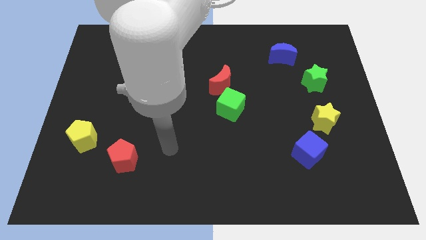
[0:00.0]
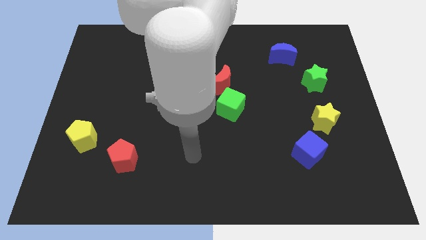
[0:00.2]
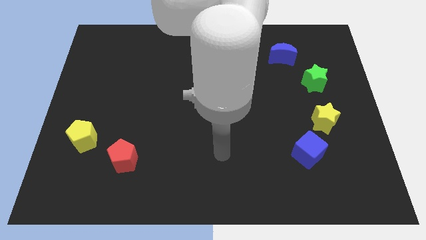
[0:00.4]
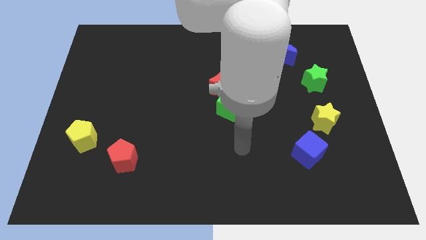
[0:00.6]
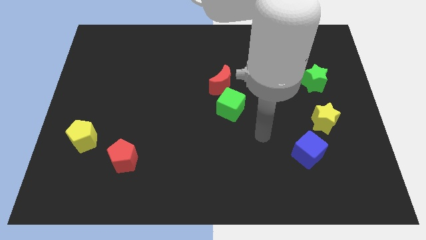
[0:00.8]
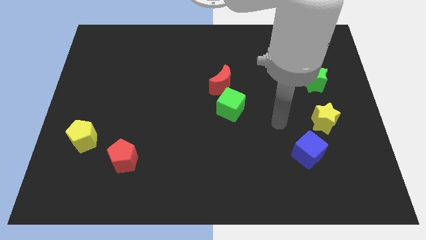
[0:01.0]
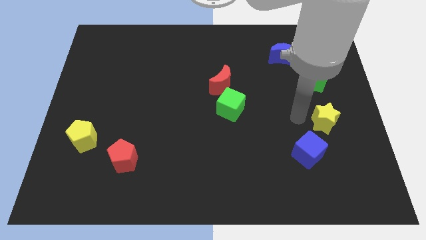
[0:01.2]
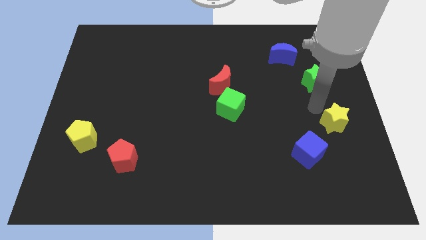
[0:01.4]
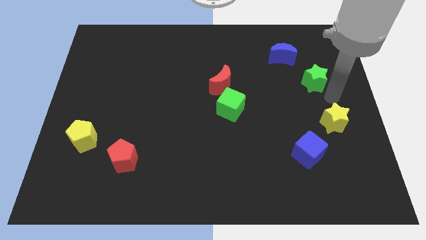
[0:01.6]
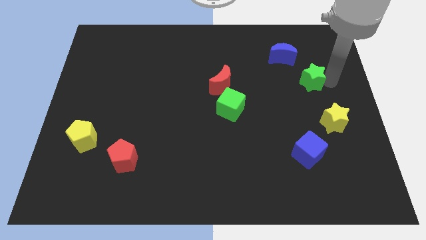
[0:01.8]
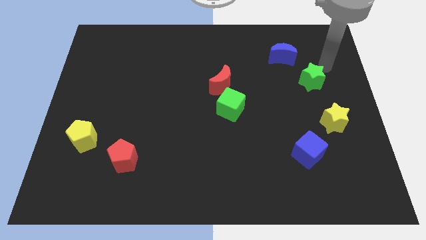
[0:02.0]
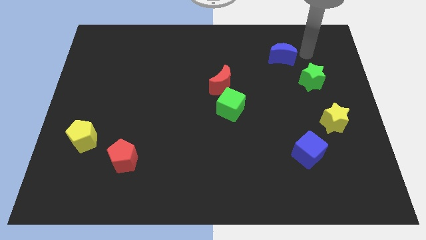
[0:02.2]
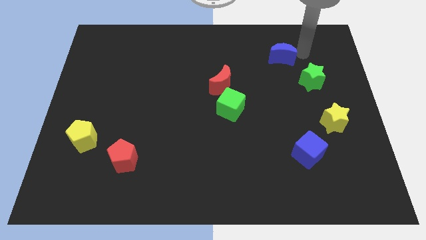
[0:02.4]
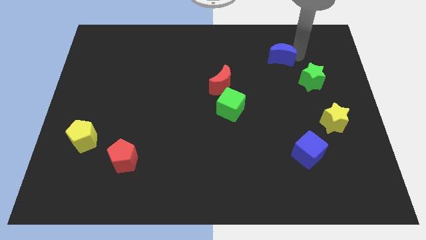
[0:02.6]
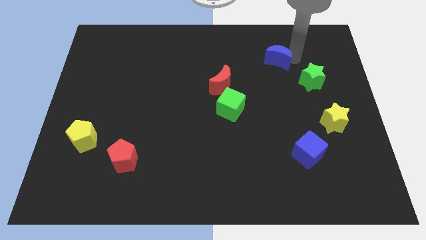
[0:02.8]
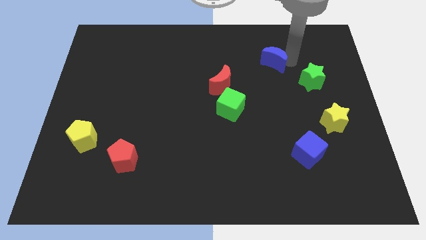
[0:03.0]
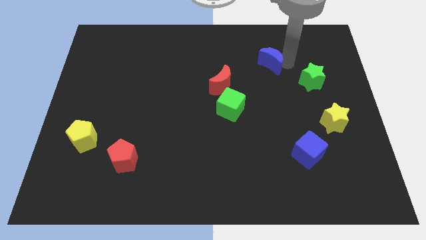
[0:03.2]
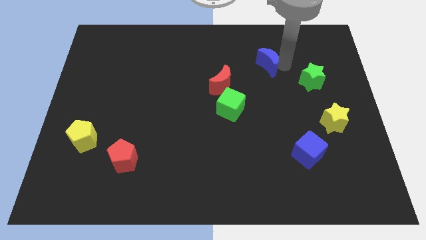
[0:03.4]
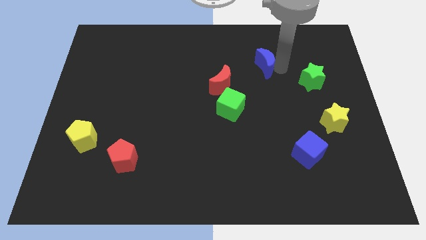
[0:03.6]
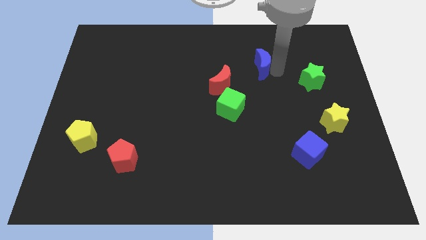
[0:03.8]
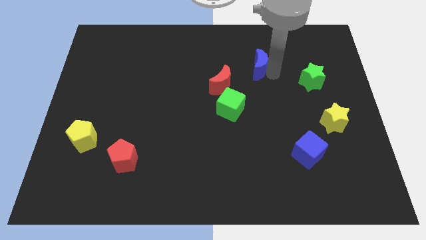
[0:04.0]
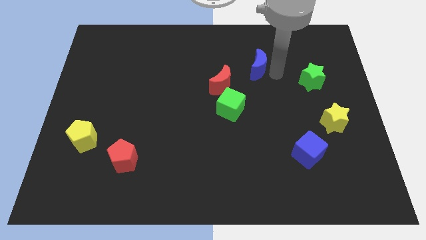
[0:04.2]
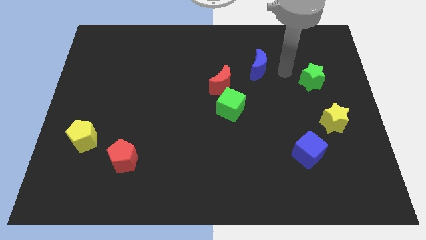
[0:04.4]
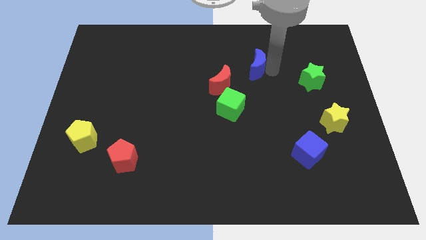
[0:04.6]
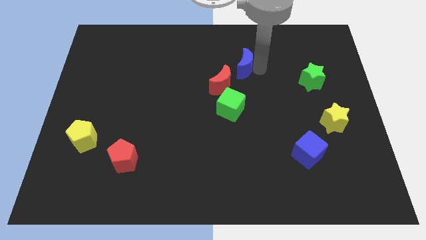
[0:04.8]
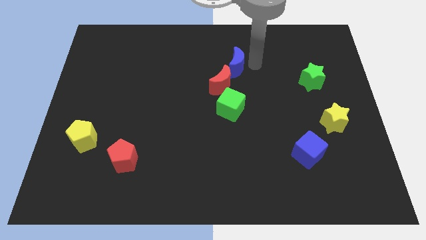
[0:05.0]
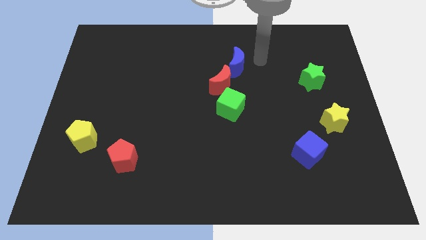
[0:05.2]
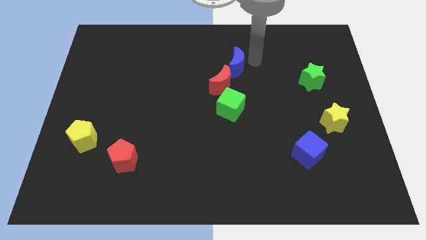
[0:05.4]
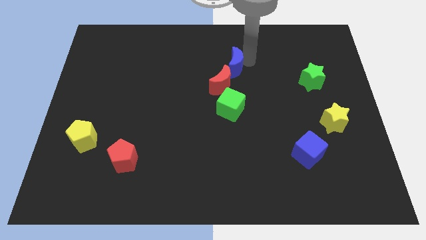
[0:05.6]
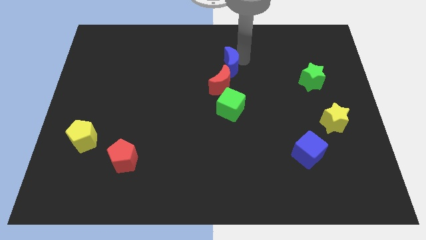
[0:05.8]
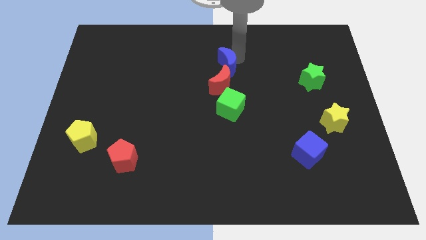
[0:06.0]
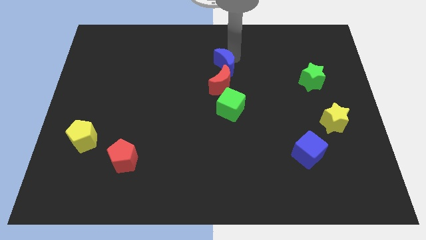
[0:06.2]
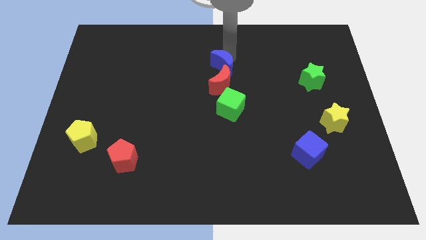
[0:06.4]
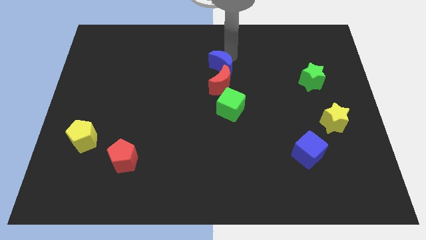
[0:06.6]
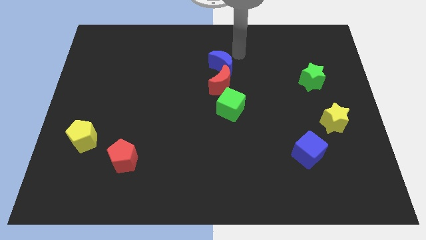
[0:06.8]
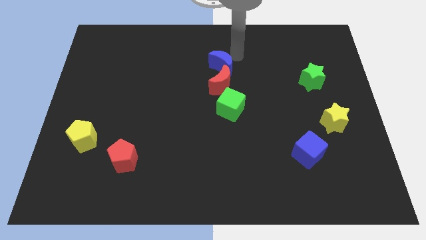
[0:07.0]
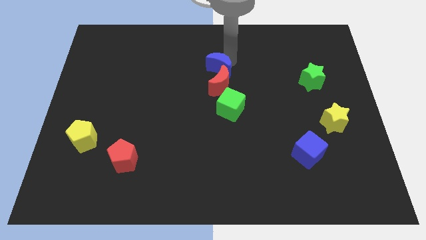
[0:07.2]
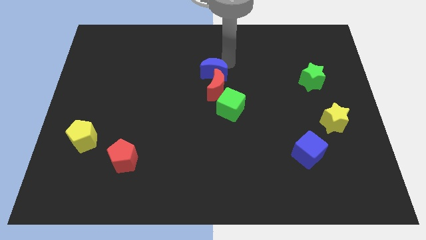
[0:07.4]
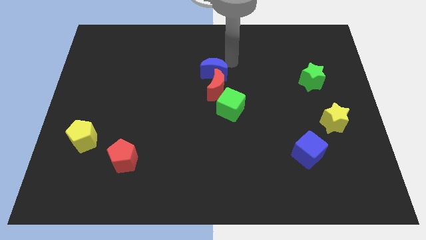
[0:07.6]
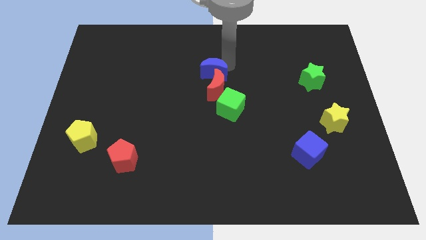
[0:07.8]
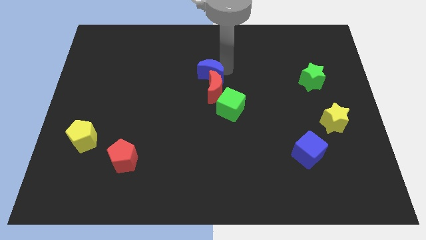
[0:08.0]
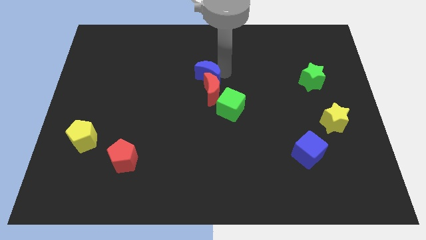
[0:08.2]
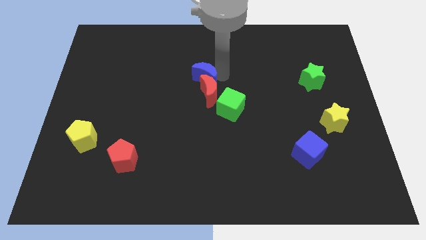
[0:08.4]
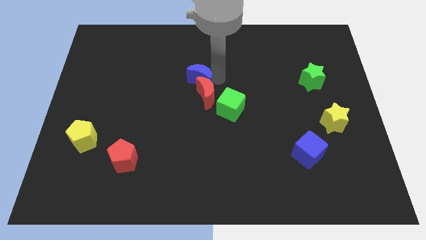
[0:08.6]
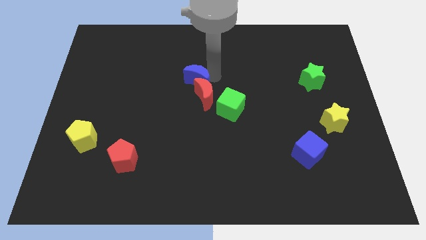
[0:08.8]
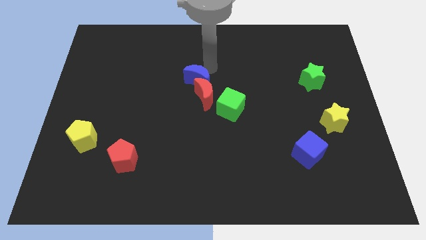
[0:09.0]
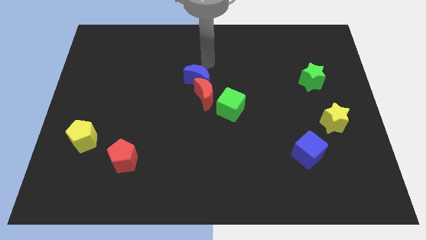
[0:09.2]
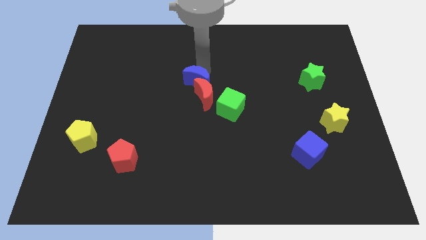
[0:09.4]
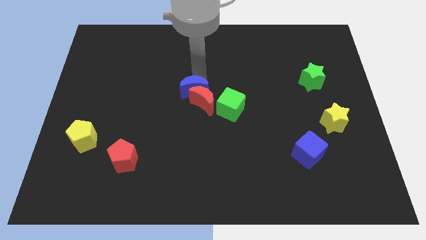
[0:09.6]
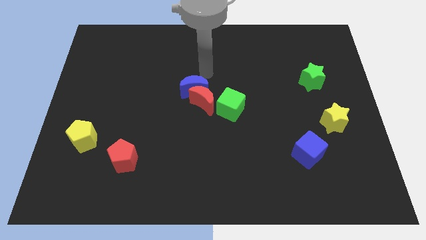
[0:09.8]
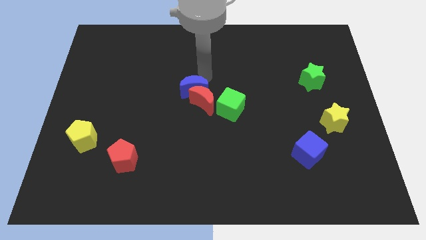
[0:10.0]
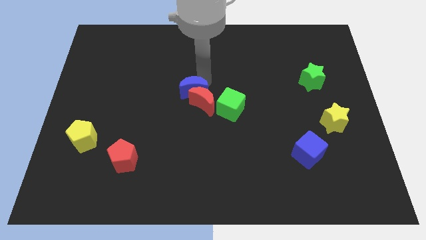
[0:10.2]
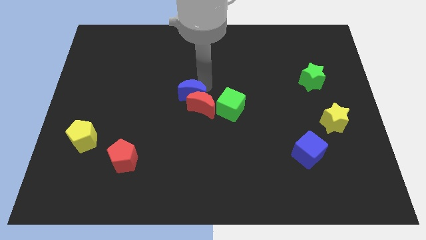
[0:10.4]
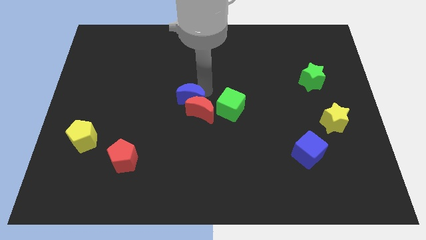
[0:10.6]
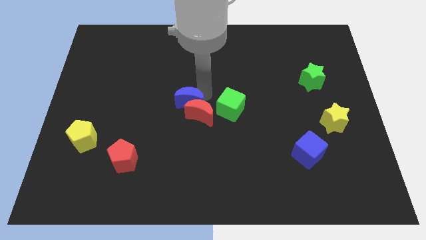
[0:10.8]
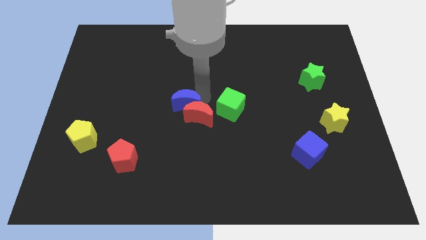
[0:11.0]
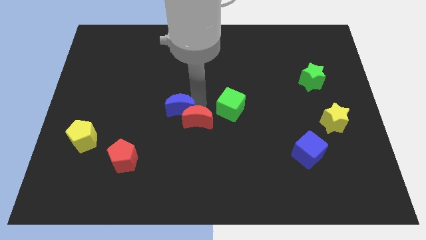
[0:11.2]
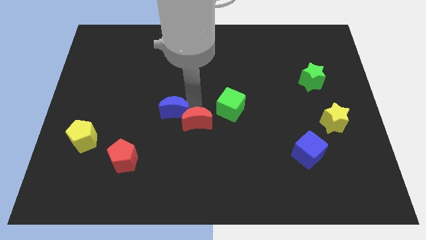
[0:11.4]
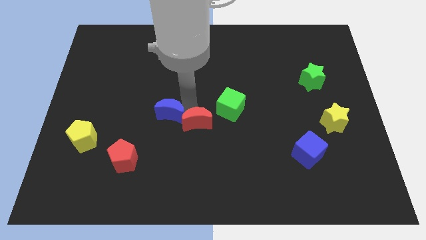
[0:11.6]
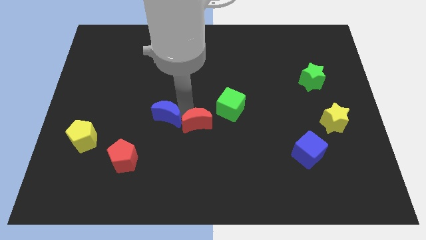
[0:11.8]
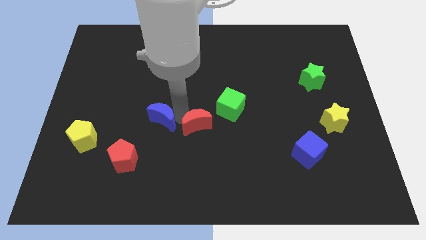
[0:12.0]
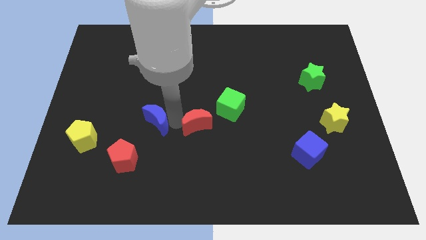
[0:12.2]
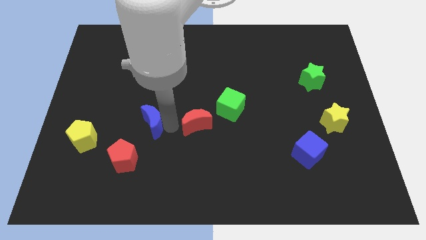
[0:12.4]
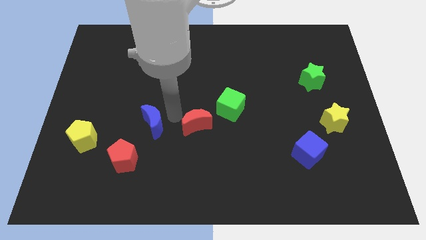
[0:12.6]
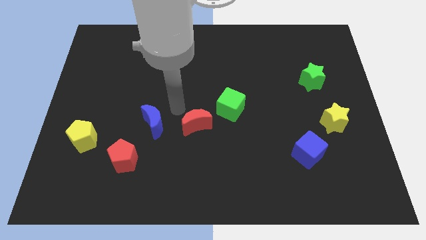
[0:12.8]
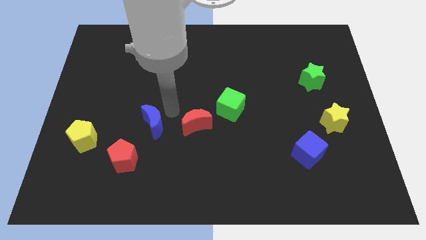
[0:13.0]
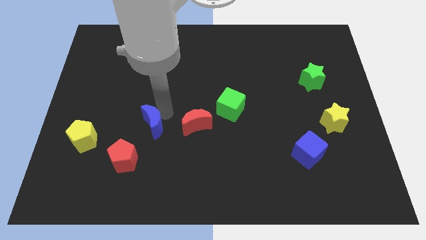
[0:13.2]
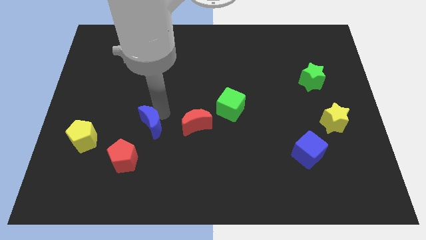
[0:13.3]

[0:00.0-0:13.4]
move the blue moon just right of the yellow pentagon
